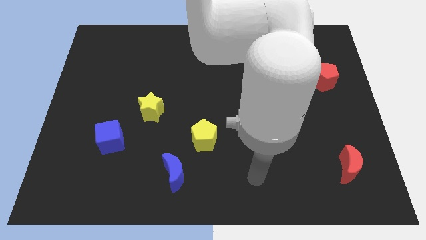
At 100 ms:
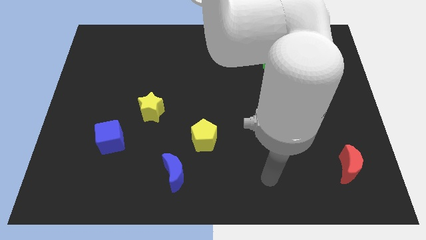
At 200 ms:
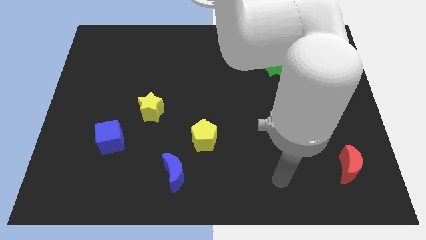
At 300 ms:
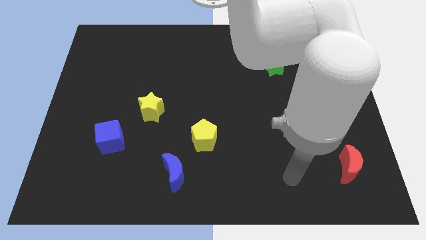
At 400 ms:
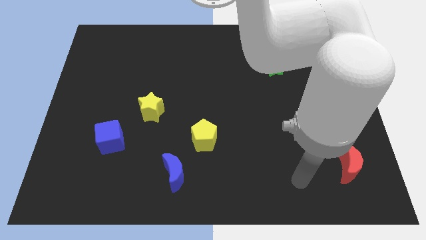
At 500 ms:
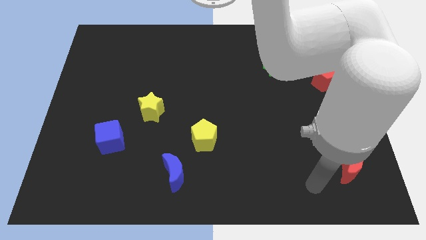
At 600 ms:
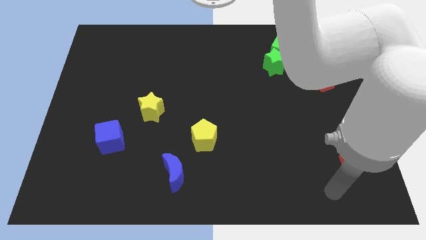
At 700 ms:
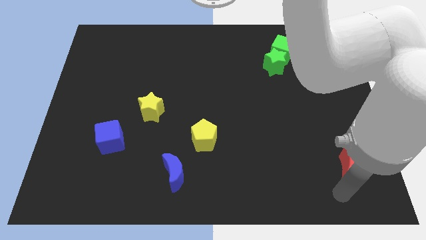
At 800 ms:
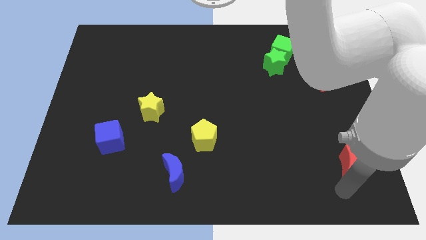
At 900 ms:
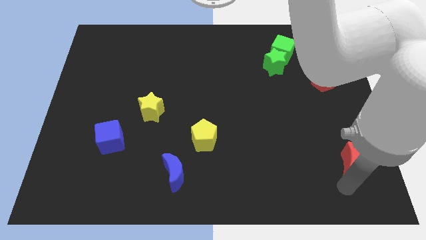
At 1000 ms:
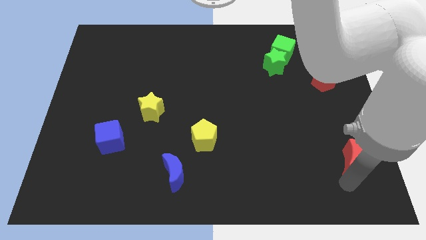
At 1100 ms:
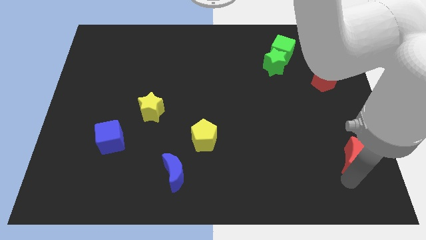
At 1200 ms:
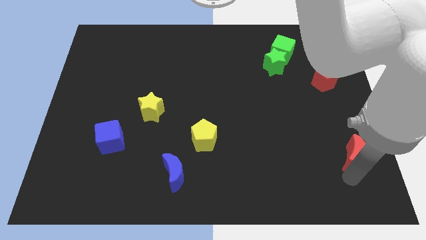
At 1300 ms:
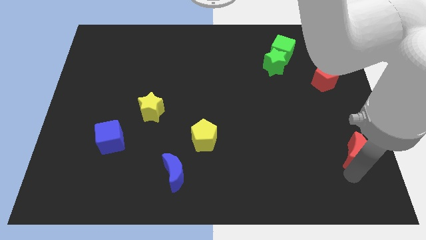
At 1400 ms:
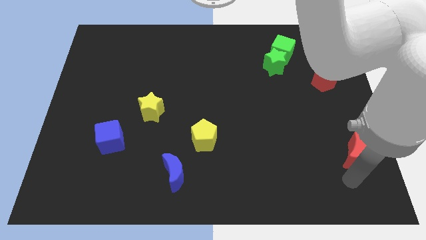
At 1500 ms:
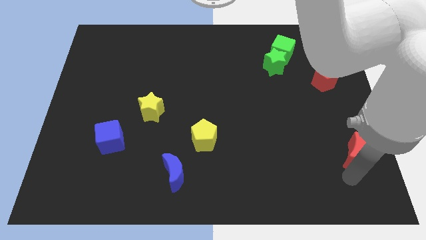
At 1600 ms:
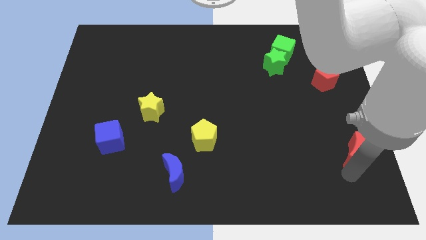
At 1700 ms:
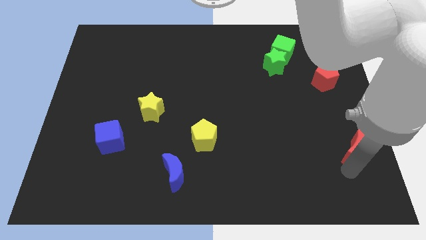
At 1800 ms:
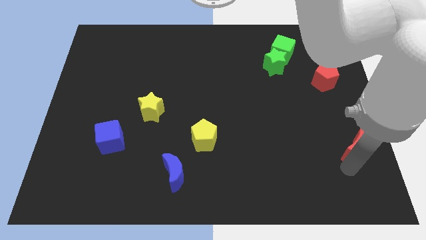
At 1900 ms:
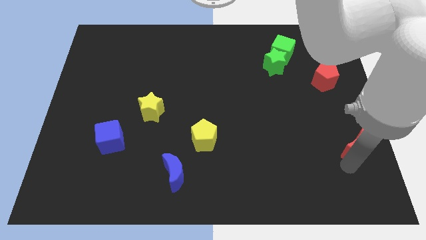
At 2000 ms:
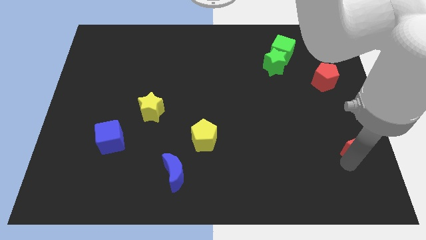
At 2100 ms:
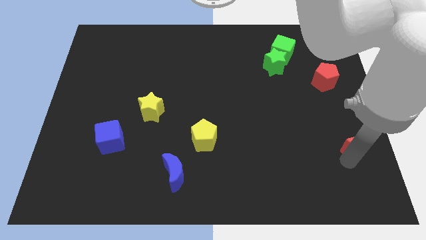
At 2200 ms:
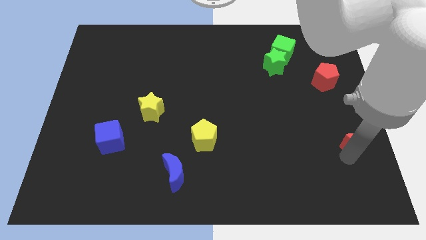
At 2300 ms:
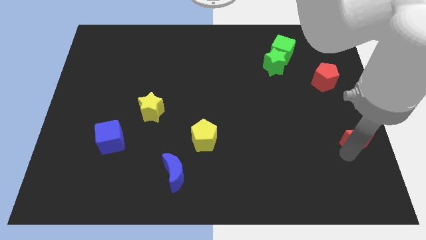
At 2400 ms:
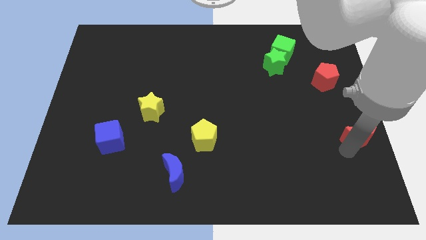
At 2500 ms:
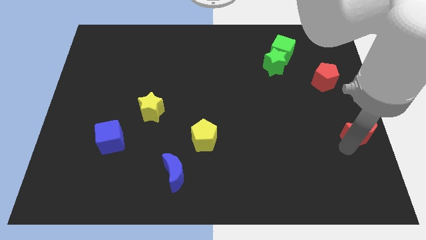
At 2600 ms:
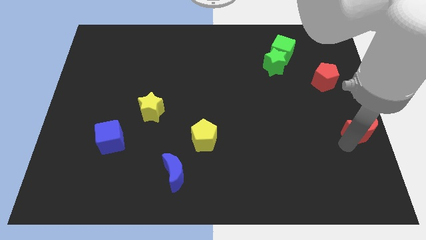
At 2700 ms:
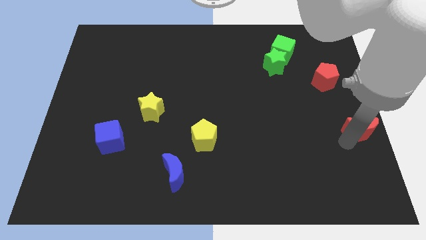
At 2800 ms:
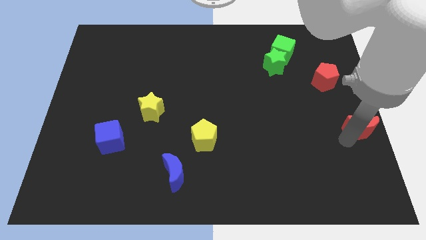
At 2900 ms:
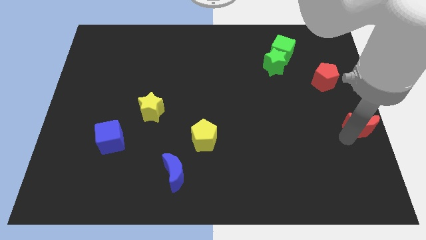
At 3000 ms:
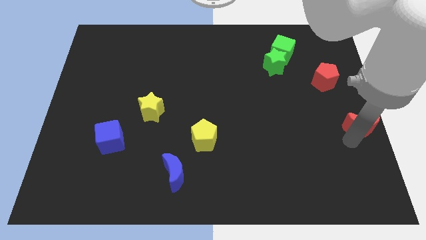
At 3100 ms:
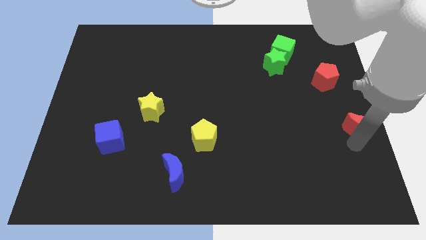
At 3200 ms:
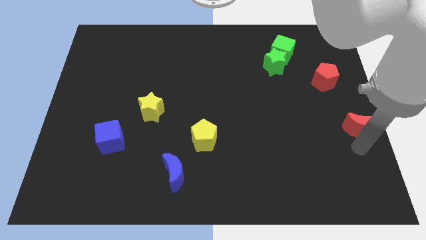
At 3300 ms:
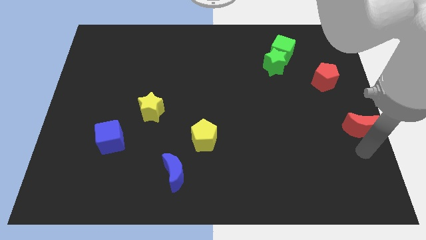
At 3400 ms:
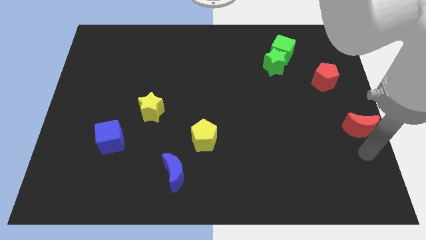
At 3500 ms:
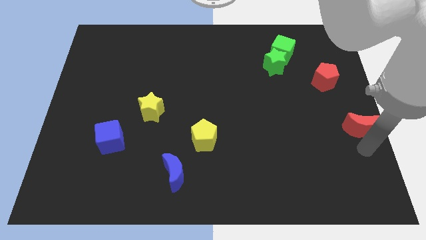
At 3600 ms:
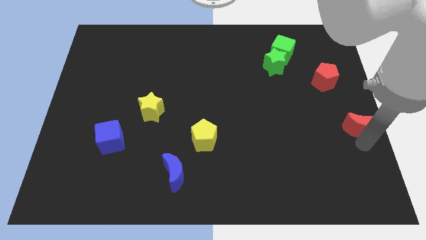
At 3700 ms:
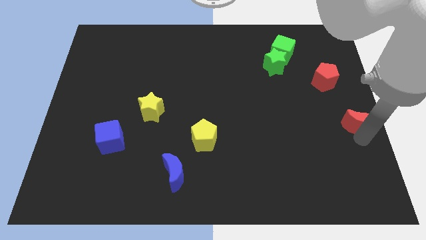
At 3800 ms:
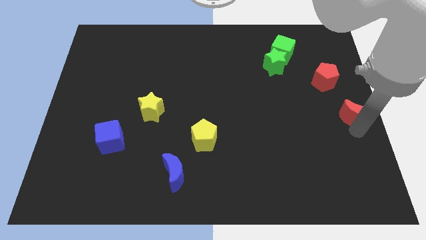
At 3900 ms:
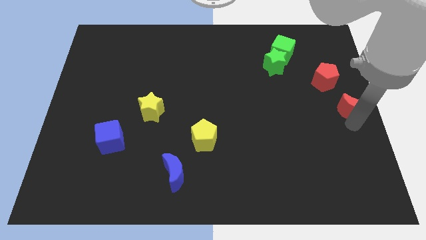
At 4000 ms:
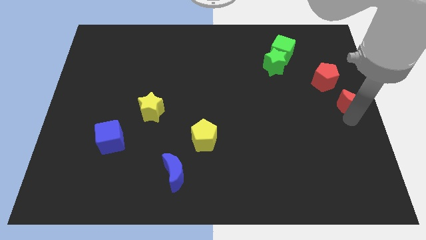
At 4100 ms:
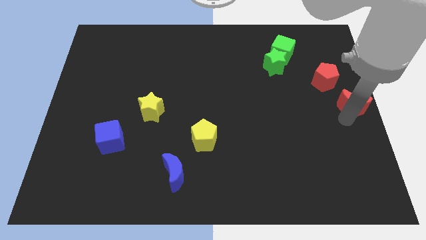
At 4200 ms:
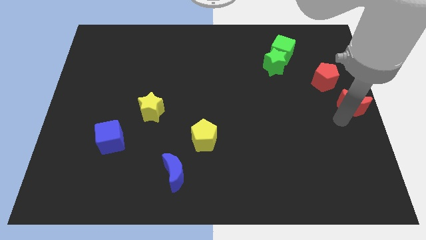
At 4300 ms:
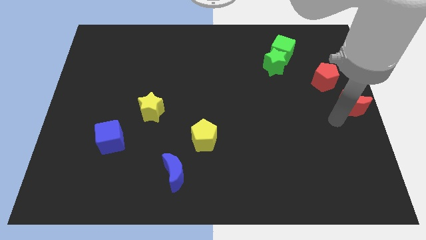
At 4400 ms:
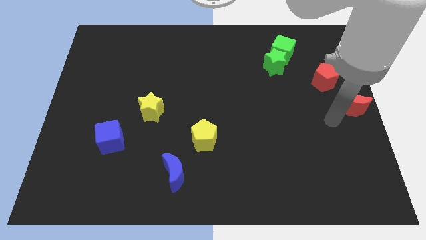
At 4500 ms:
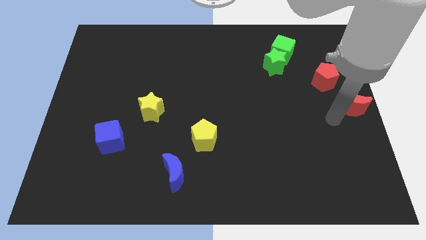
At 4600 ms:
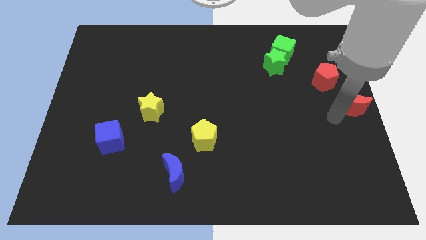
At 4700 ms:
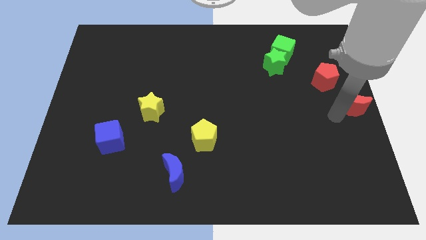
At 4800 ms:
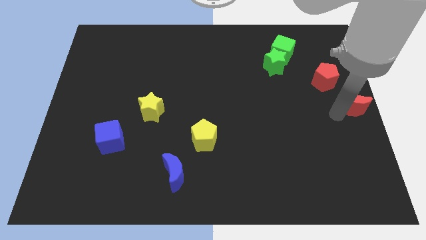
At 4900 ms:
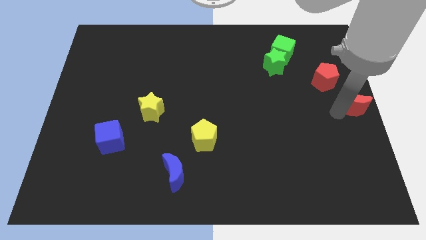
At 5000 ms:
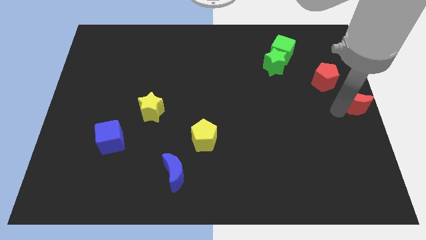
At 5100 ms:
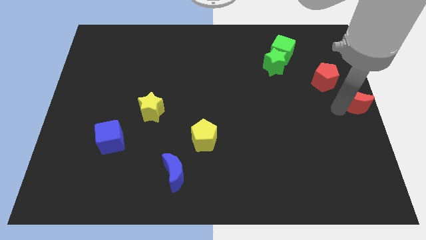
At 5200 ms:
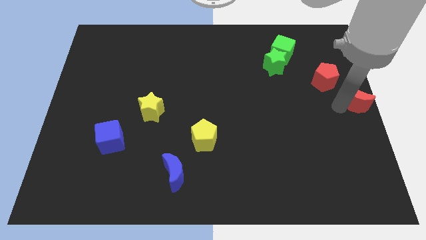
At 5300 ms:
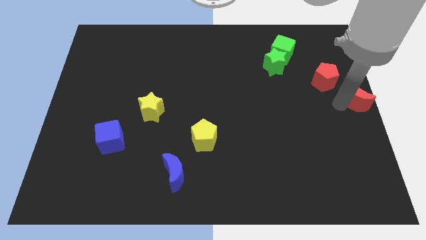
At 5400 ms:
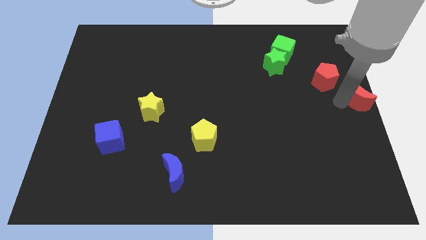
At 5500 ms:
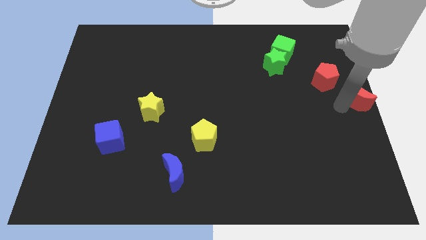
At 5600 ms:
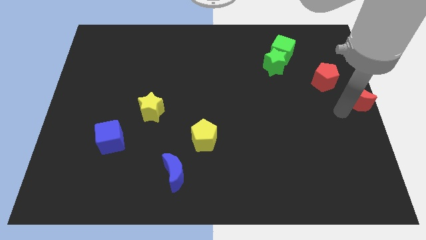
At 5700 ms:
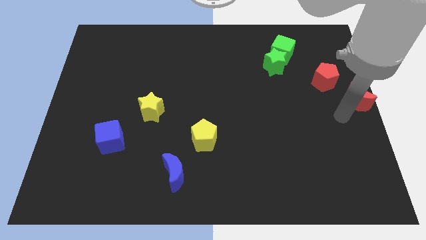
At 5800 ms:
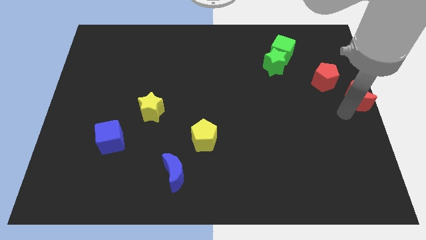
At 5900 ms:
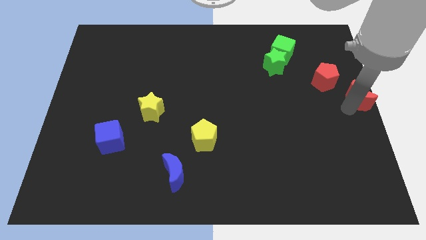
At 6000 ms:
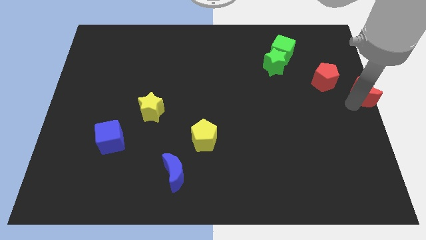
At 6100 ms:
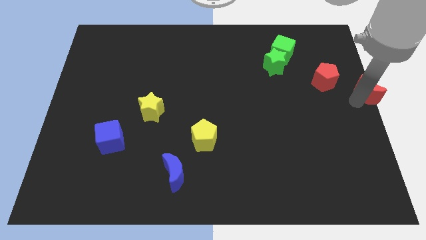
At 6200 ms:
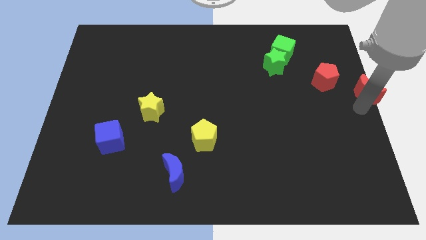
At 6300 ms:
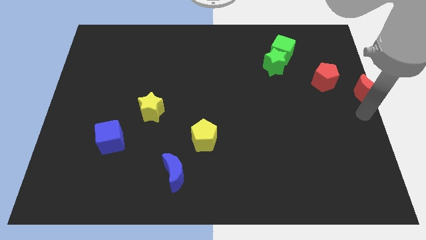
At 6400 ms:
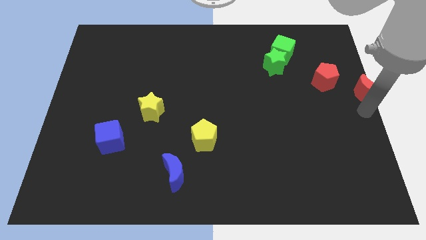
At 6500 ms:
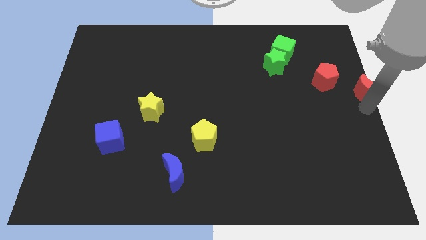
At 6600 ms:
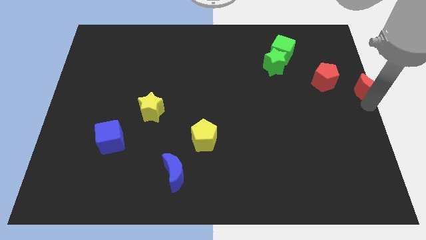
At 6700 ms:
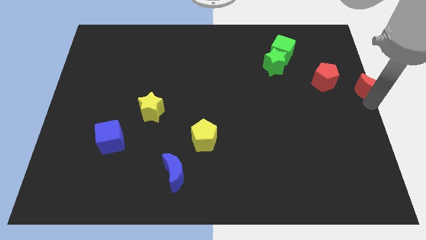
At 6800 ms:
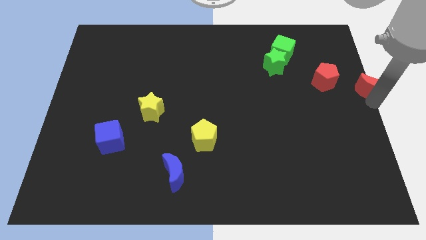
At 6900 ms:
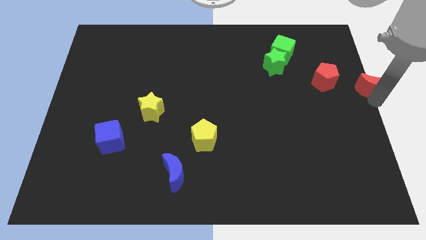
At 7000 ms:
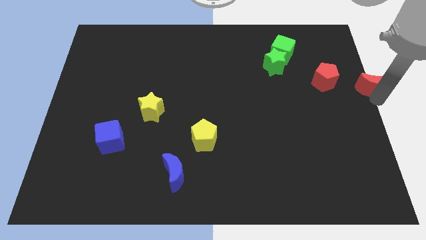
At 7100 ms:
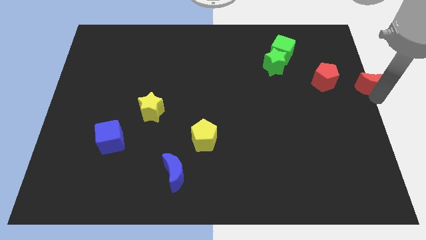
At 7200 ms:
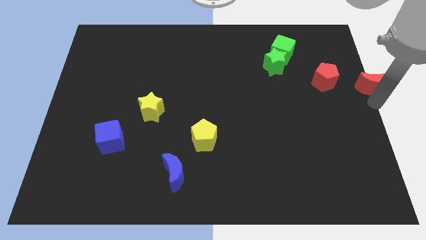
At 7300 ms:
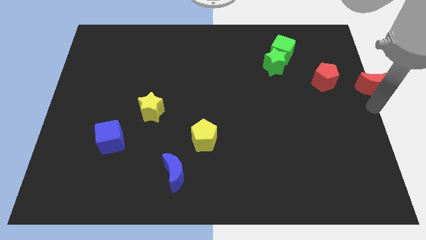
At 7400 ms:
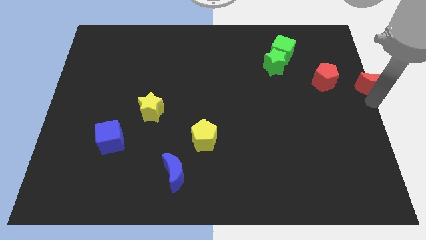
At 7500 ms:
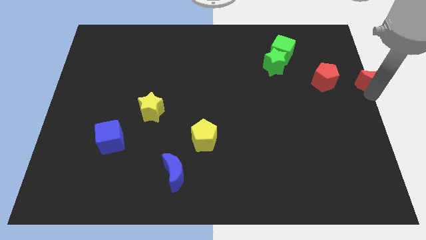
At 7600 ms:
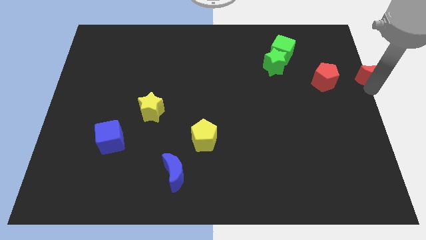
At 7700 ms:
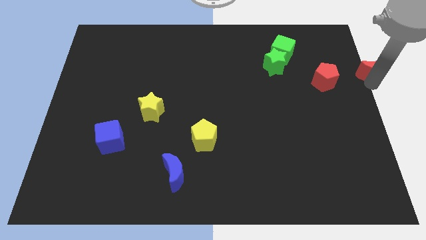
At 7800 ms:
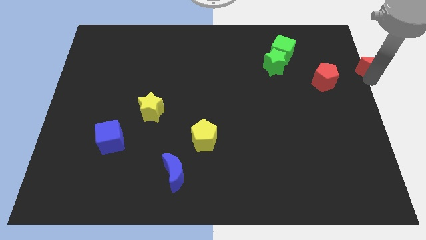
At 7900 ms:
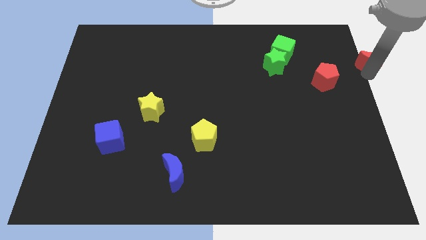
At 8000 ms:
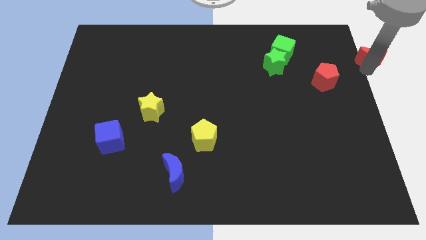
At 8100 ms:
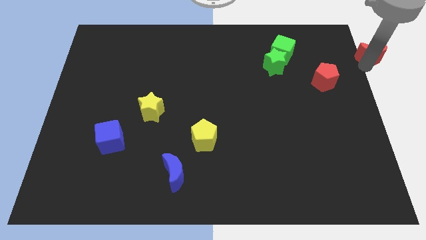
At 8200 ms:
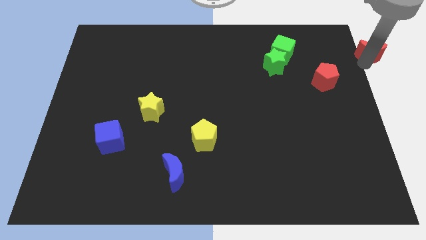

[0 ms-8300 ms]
put the red moon to the top right corner
